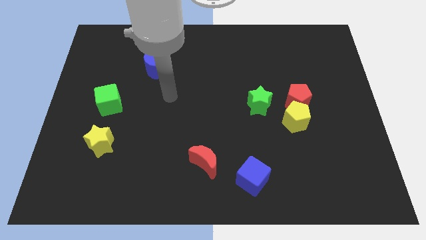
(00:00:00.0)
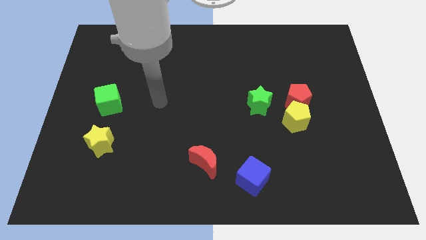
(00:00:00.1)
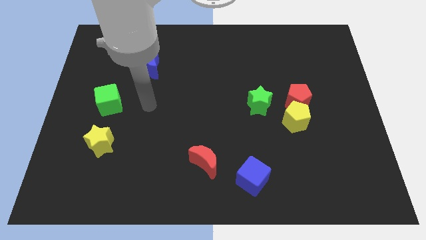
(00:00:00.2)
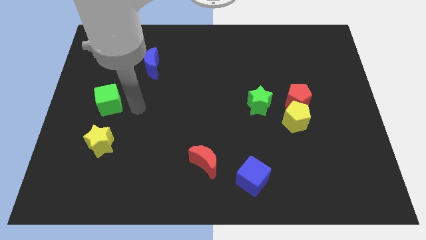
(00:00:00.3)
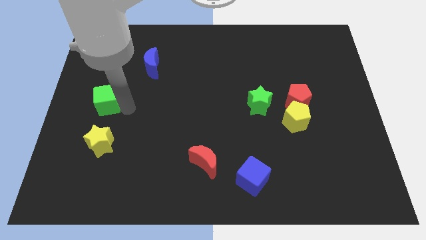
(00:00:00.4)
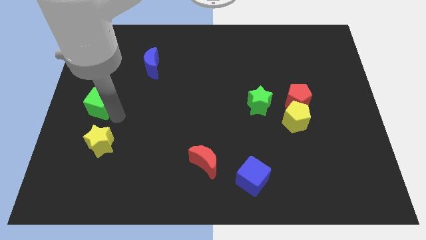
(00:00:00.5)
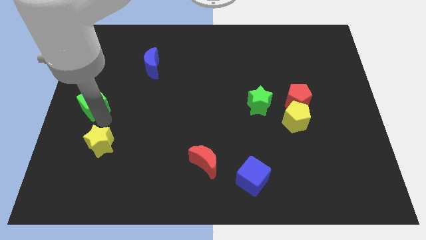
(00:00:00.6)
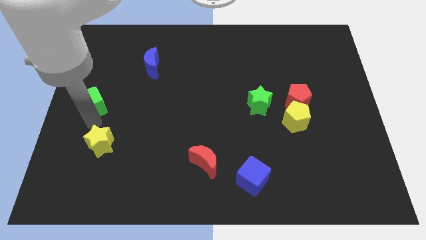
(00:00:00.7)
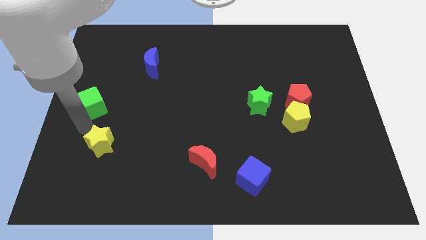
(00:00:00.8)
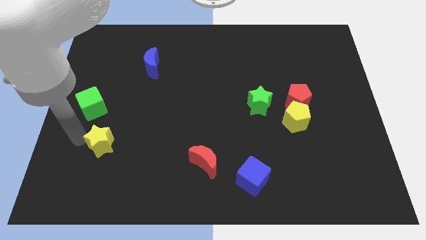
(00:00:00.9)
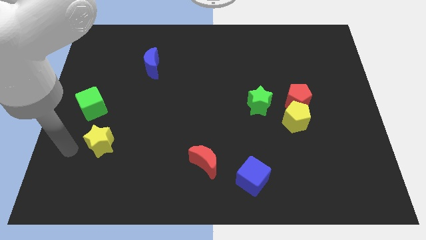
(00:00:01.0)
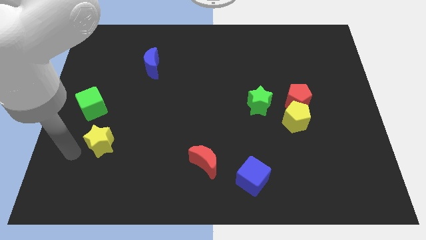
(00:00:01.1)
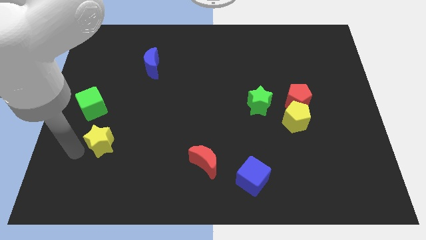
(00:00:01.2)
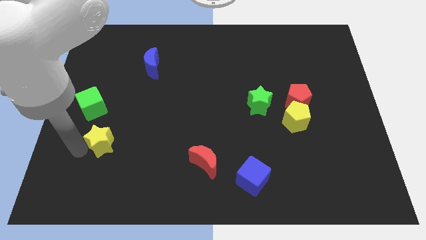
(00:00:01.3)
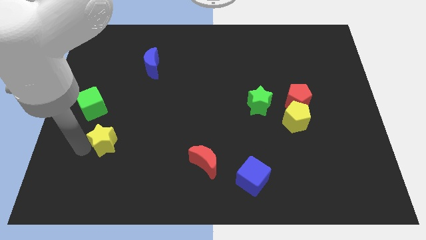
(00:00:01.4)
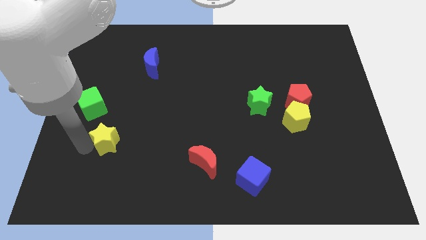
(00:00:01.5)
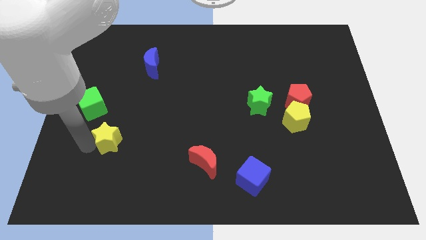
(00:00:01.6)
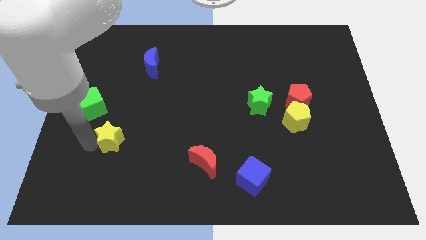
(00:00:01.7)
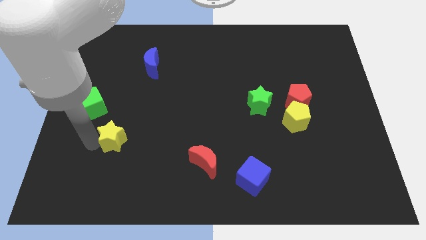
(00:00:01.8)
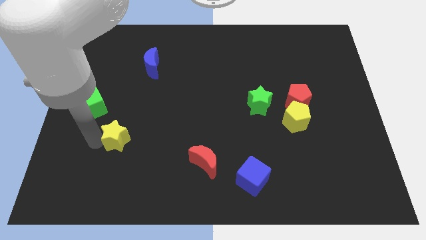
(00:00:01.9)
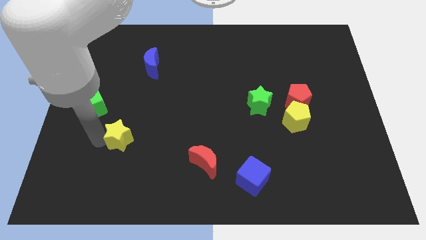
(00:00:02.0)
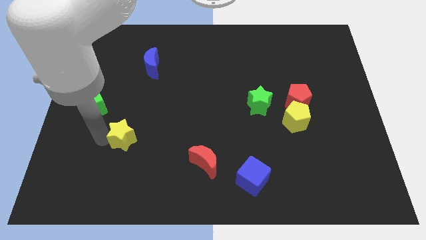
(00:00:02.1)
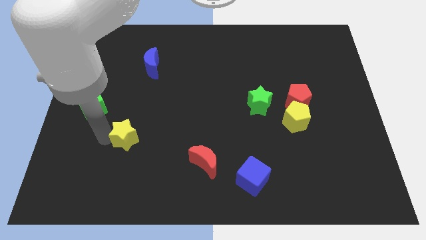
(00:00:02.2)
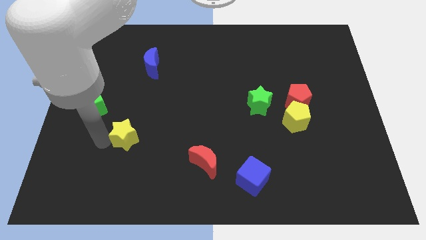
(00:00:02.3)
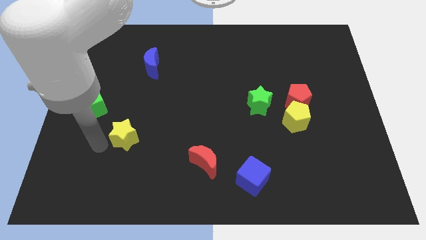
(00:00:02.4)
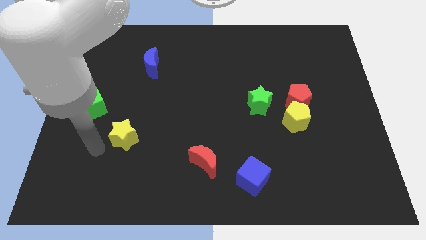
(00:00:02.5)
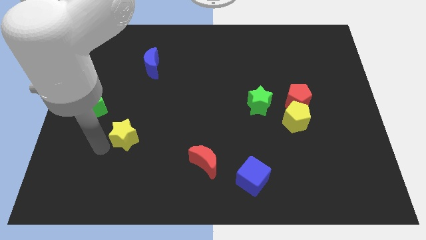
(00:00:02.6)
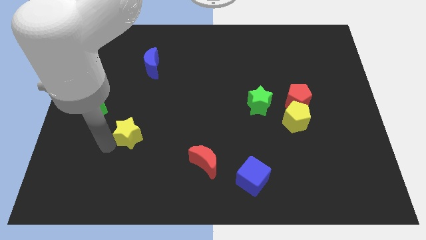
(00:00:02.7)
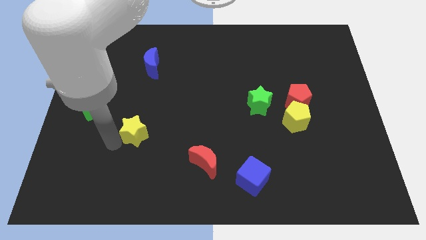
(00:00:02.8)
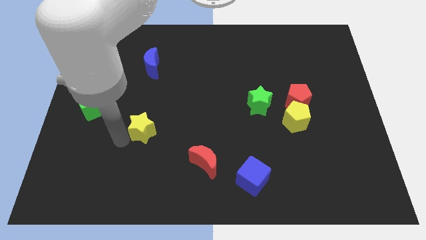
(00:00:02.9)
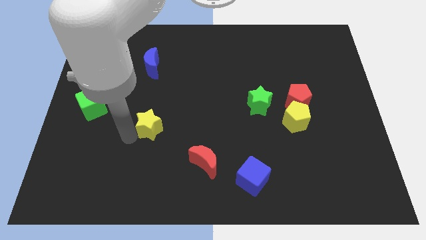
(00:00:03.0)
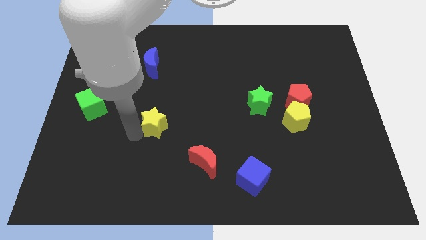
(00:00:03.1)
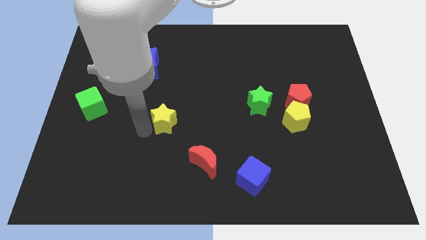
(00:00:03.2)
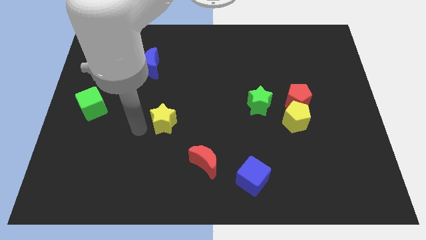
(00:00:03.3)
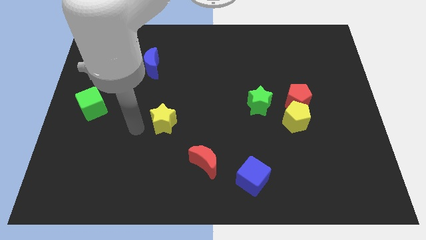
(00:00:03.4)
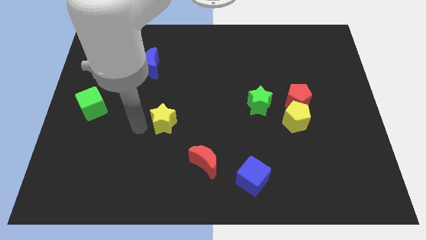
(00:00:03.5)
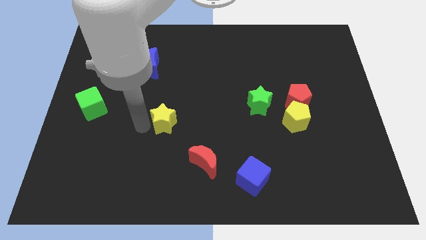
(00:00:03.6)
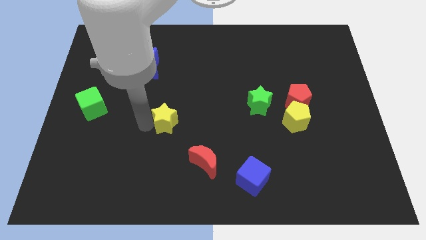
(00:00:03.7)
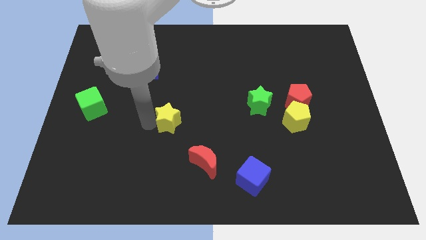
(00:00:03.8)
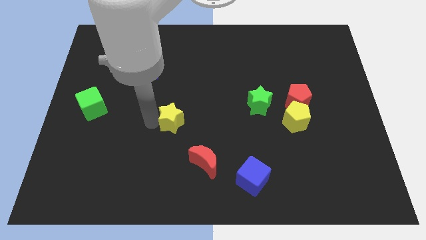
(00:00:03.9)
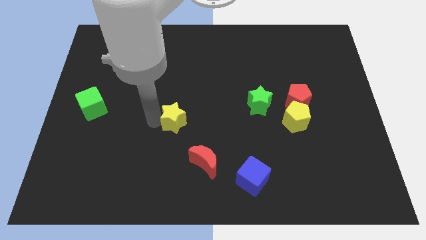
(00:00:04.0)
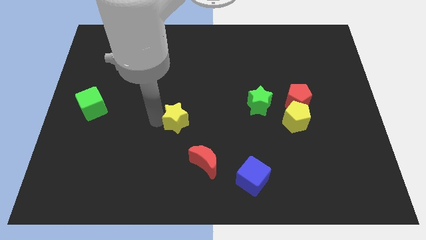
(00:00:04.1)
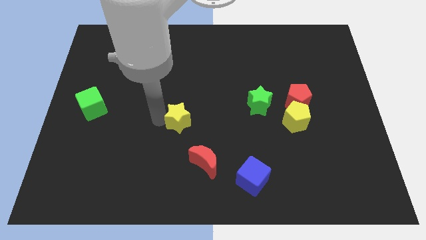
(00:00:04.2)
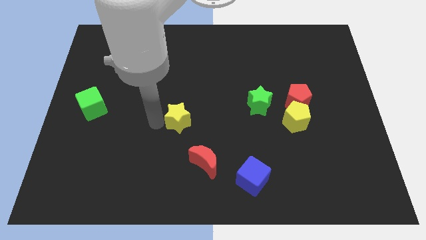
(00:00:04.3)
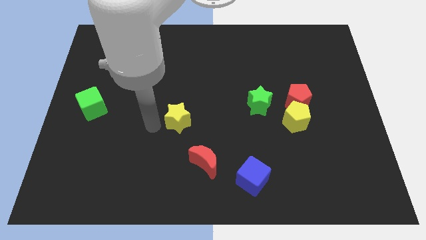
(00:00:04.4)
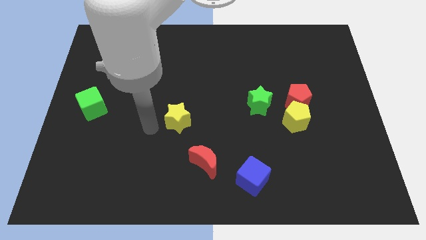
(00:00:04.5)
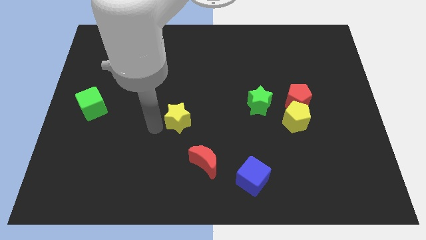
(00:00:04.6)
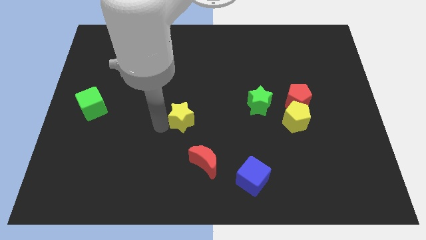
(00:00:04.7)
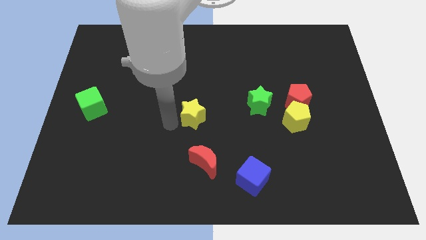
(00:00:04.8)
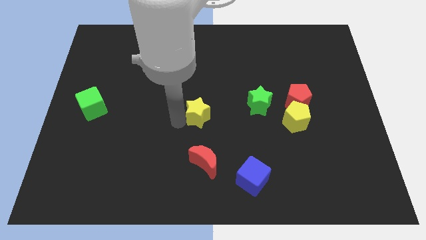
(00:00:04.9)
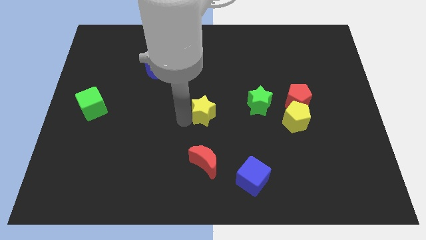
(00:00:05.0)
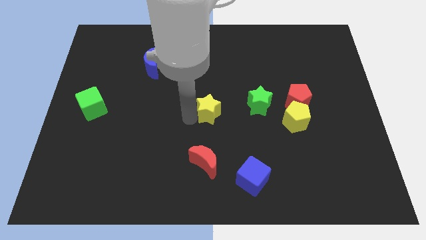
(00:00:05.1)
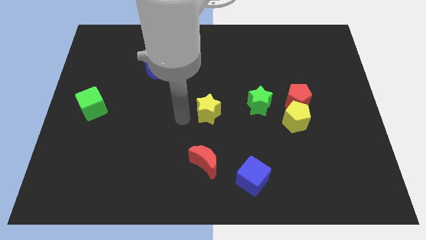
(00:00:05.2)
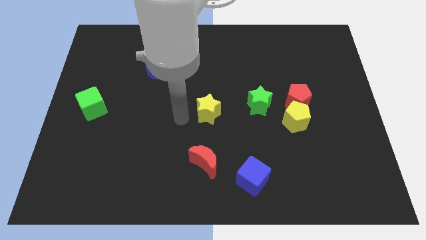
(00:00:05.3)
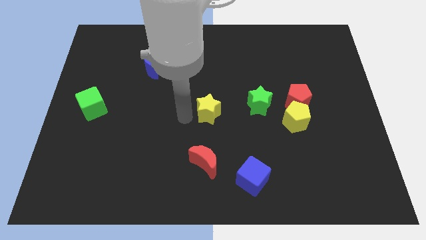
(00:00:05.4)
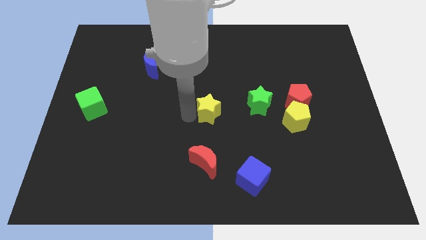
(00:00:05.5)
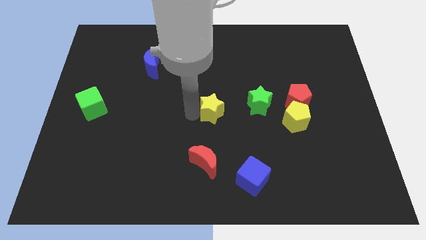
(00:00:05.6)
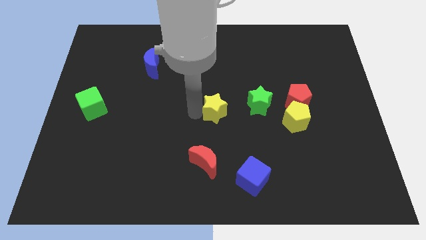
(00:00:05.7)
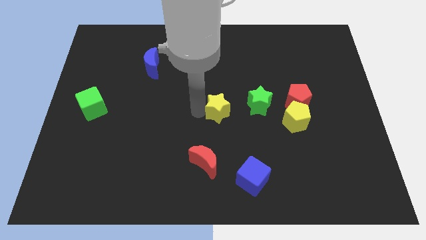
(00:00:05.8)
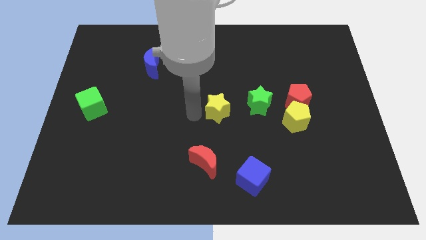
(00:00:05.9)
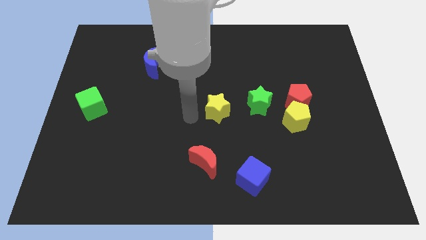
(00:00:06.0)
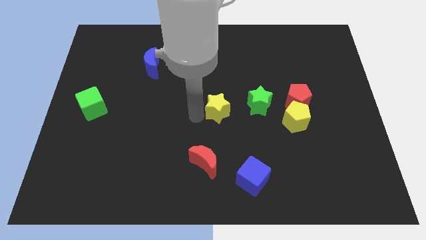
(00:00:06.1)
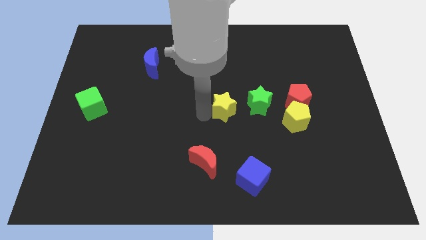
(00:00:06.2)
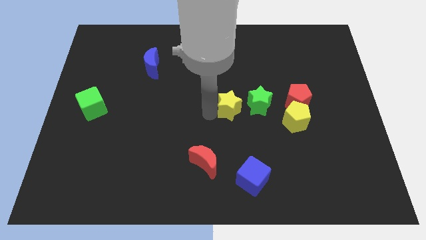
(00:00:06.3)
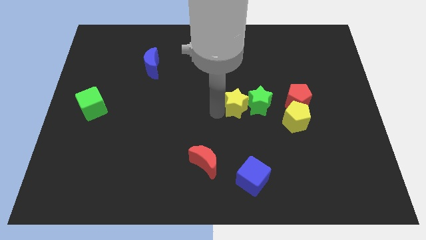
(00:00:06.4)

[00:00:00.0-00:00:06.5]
slide the yellow star to the green star

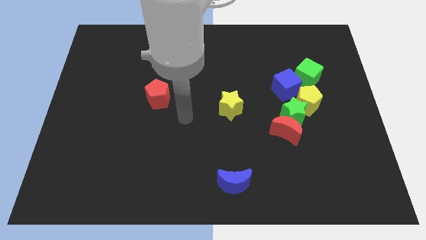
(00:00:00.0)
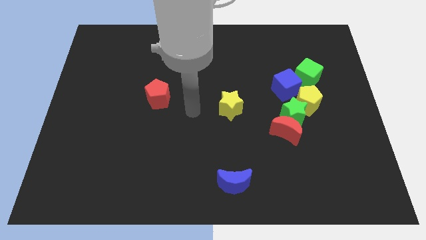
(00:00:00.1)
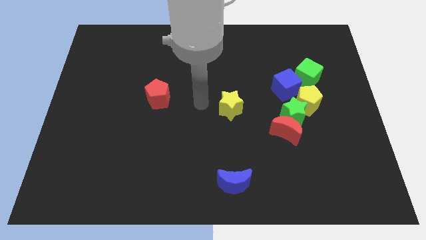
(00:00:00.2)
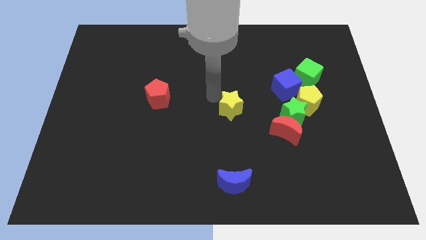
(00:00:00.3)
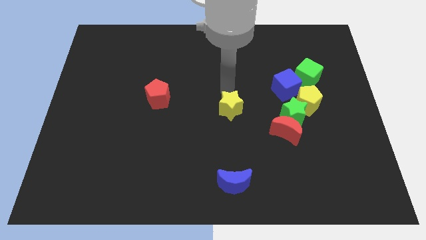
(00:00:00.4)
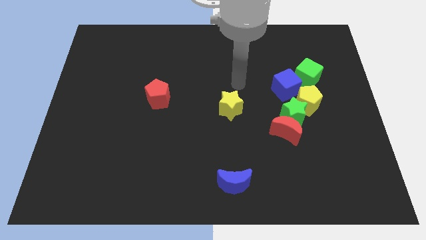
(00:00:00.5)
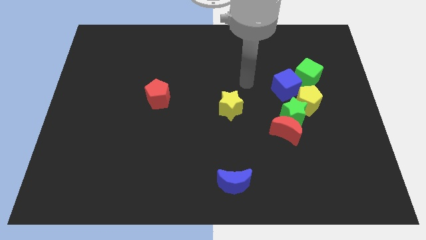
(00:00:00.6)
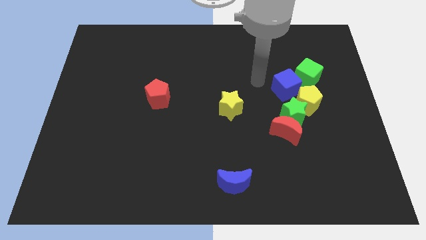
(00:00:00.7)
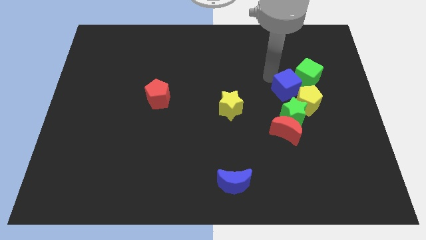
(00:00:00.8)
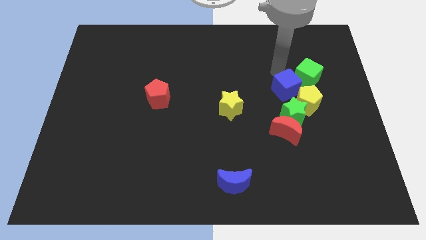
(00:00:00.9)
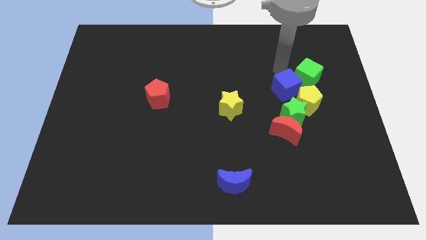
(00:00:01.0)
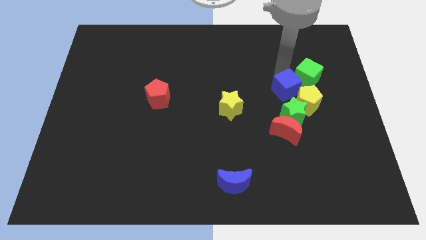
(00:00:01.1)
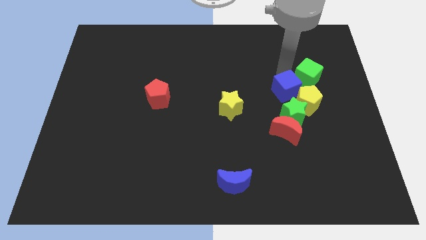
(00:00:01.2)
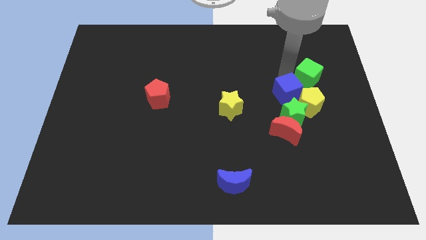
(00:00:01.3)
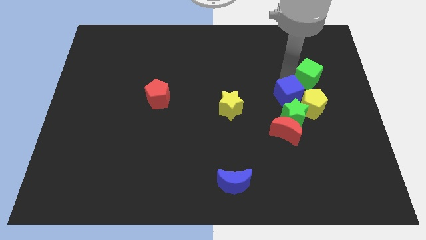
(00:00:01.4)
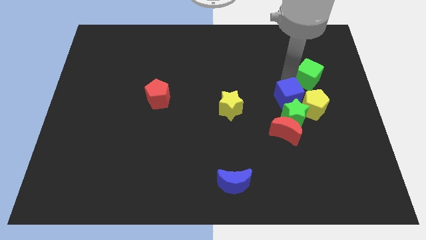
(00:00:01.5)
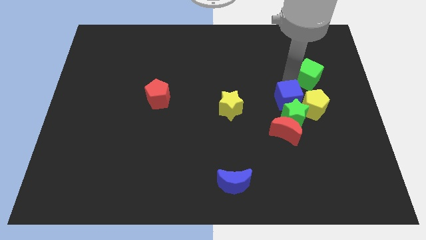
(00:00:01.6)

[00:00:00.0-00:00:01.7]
put the blue cube close to the green star

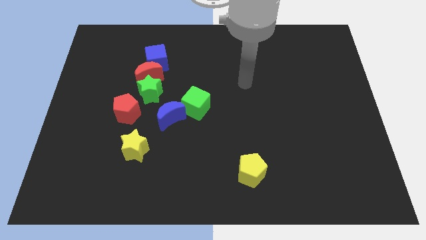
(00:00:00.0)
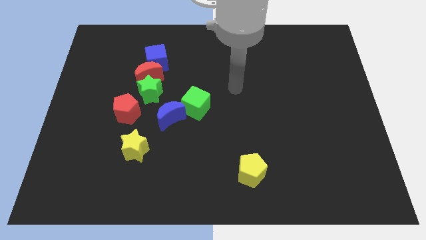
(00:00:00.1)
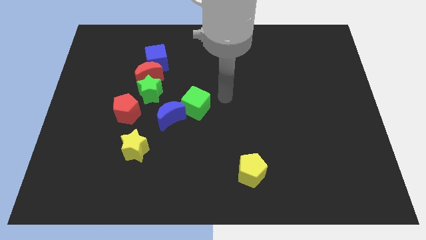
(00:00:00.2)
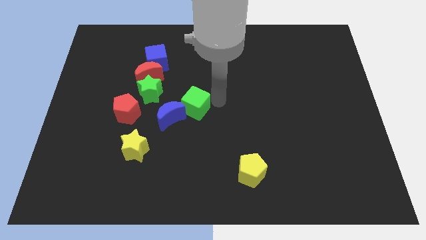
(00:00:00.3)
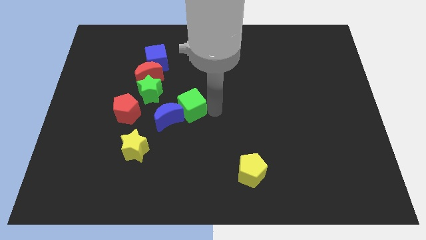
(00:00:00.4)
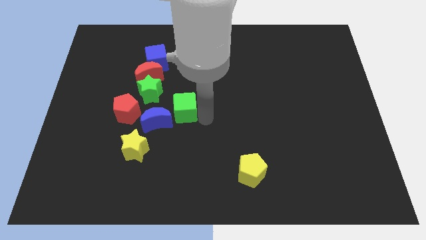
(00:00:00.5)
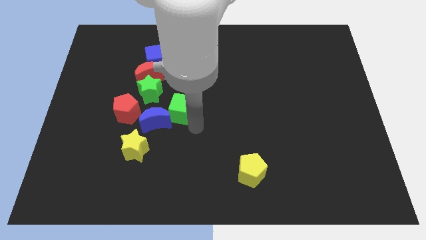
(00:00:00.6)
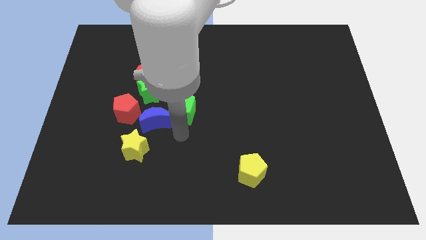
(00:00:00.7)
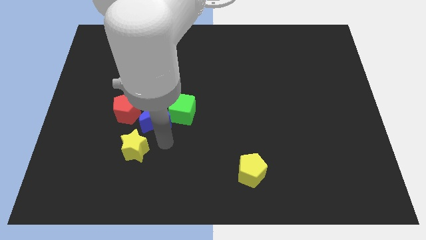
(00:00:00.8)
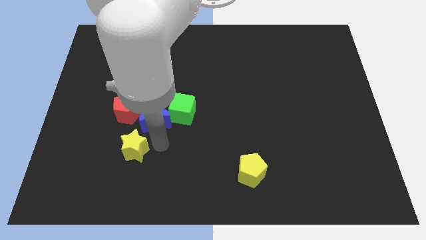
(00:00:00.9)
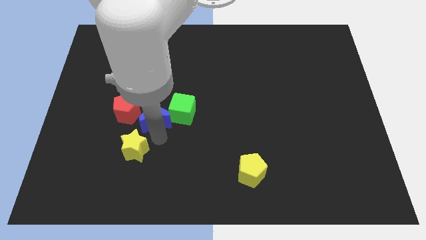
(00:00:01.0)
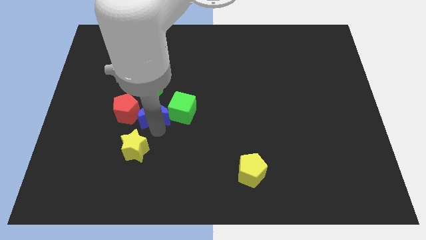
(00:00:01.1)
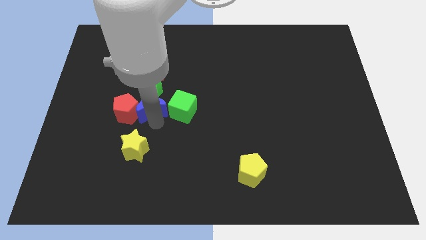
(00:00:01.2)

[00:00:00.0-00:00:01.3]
put the blue moon towards the green star
